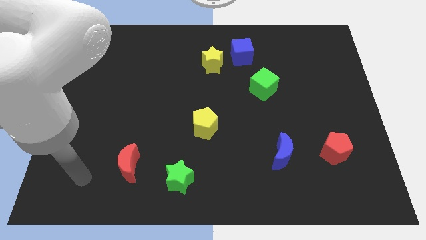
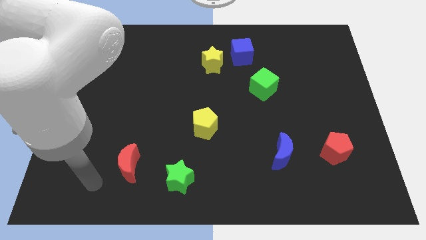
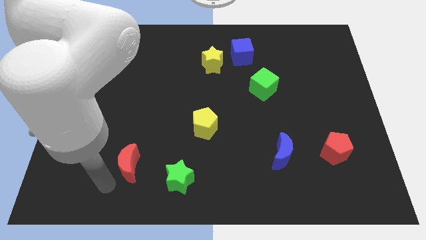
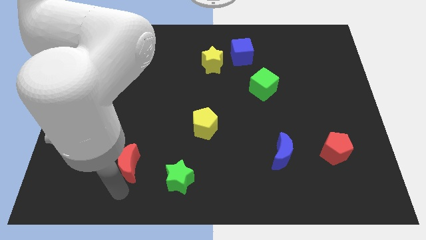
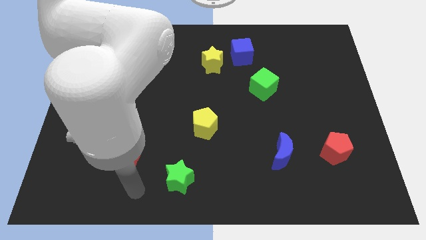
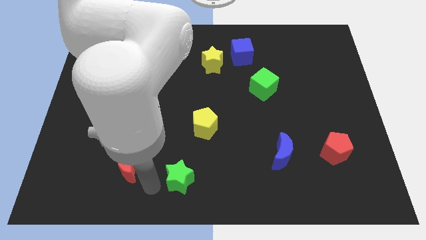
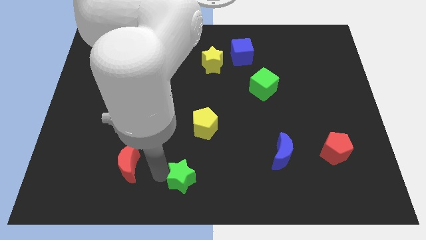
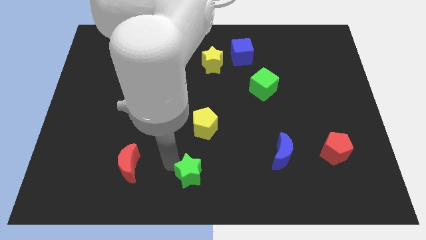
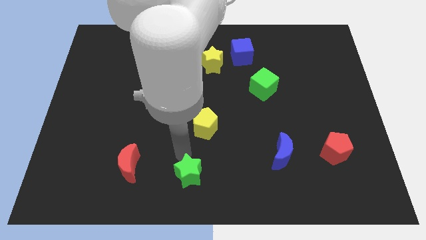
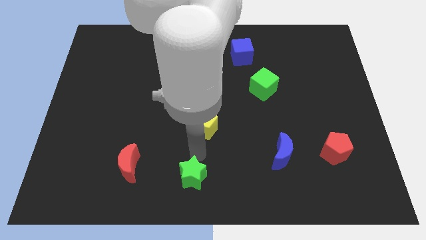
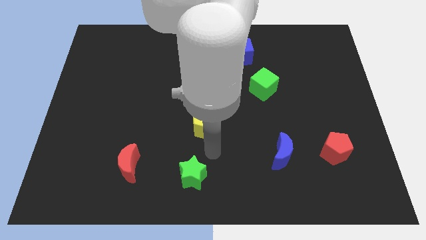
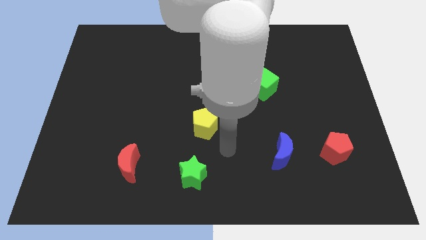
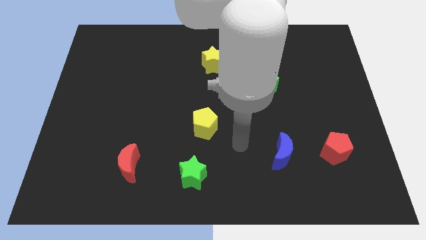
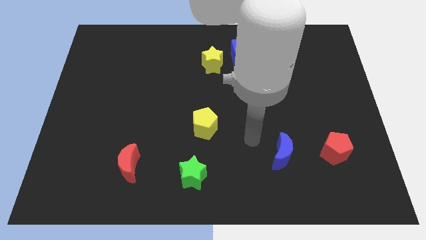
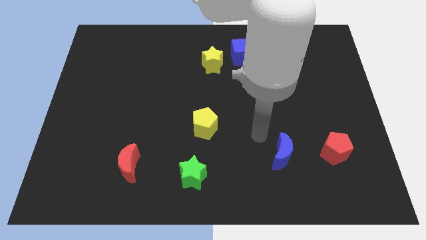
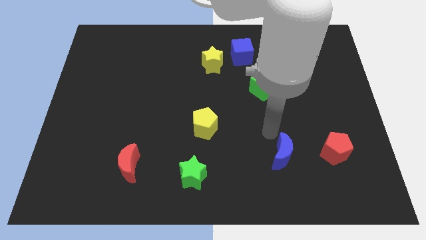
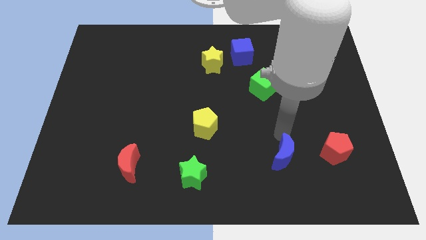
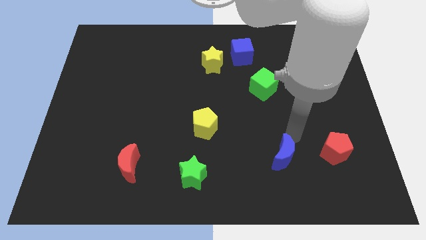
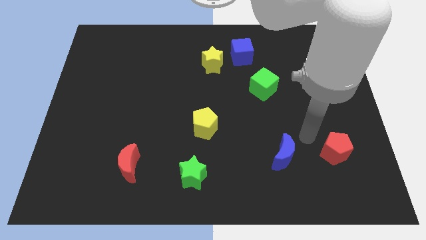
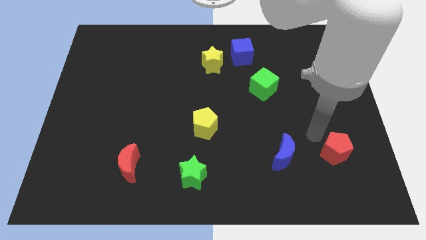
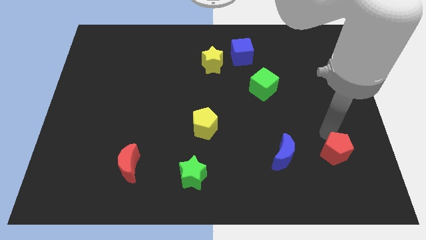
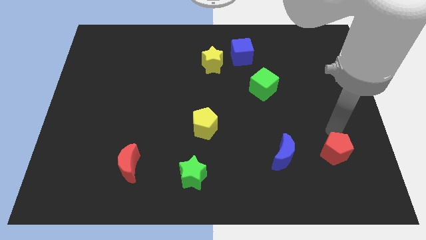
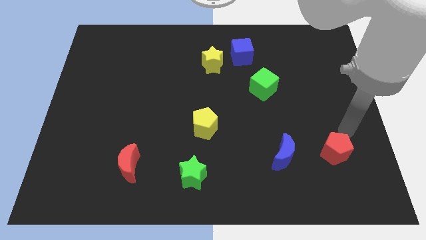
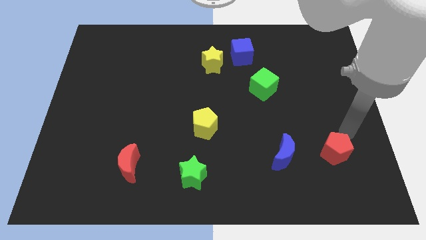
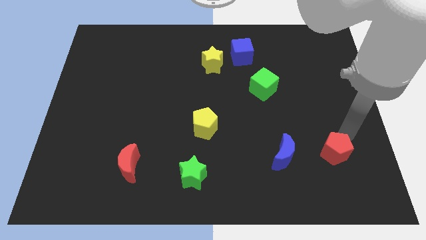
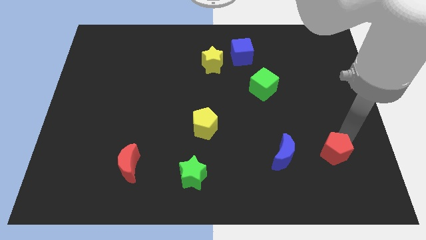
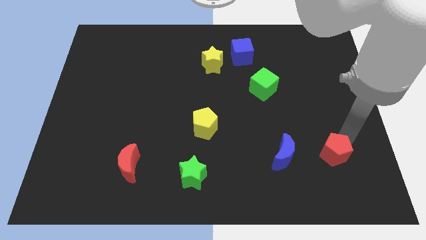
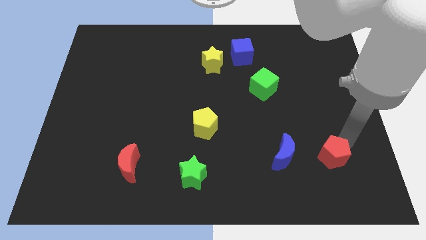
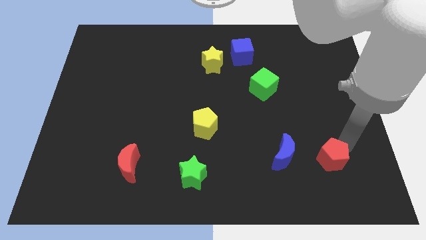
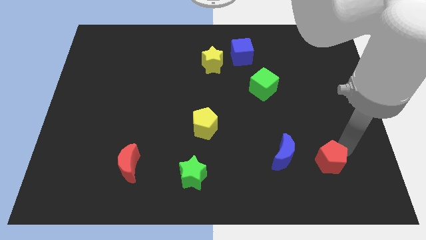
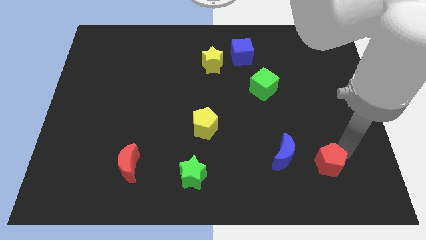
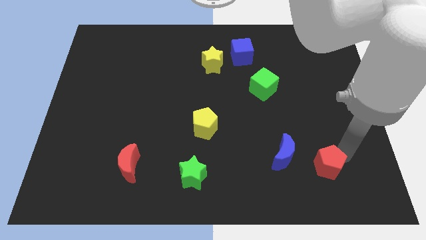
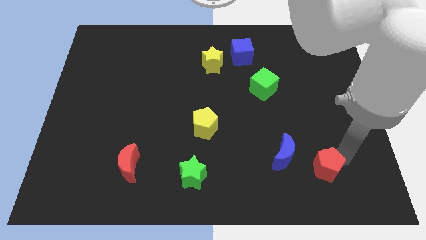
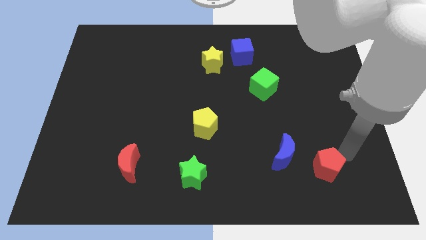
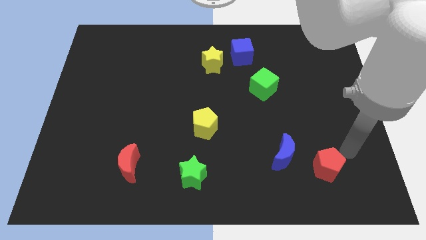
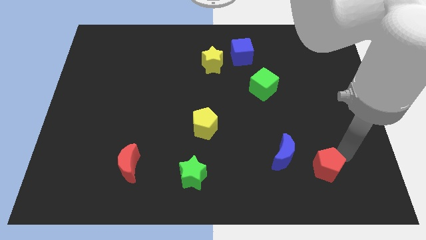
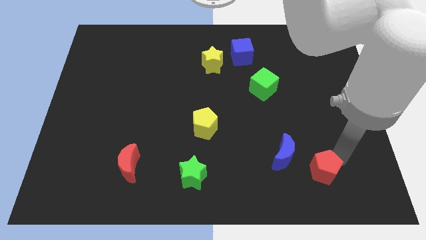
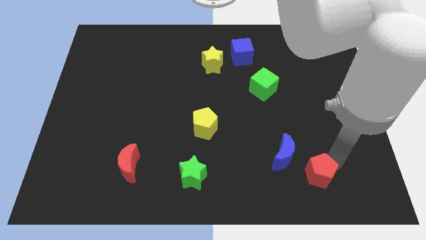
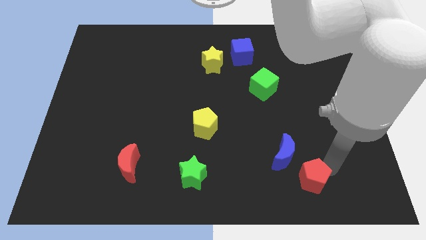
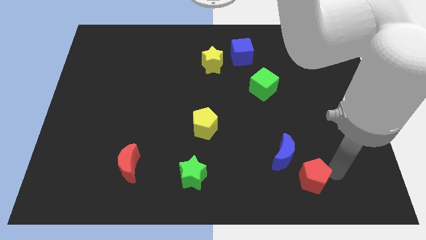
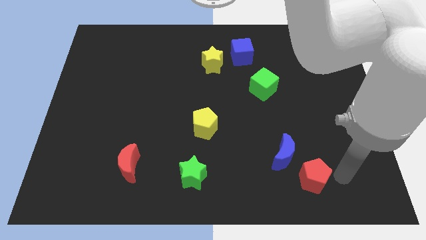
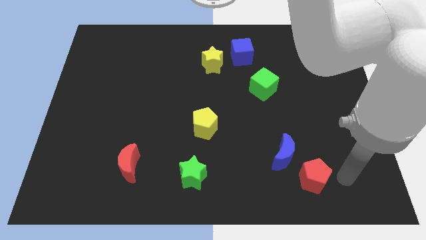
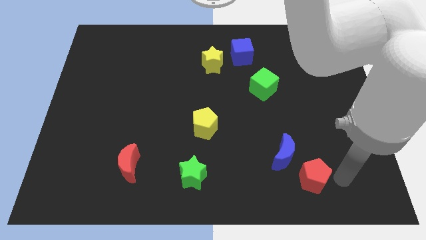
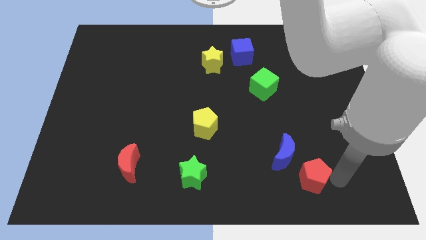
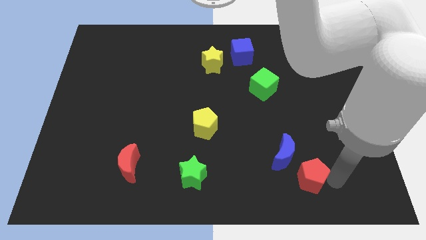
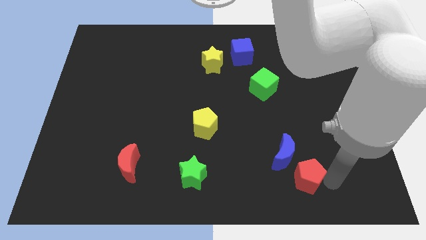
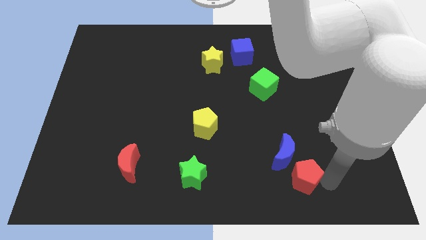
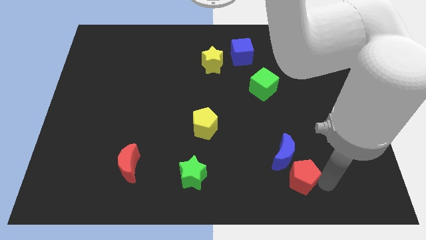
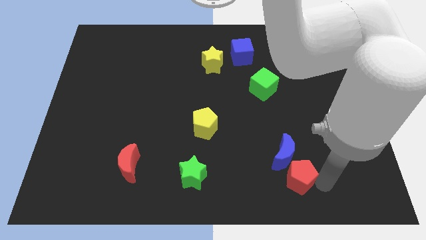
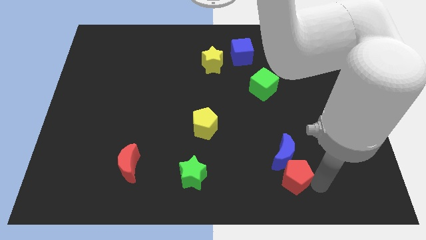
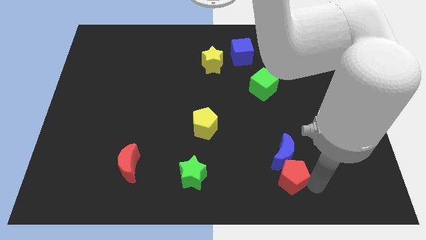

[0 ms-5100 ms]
move the red pentagon to the bottom left of the blue moon

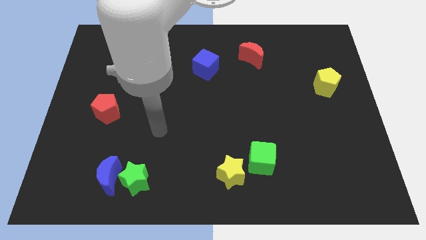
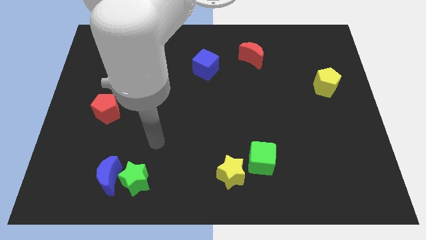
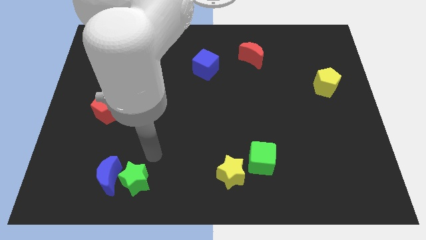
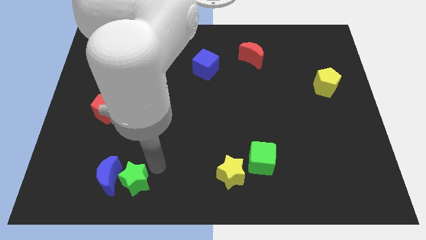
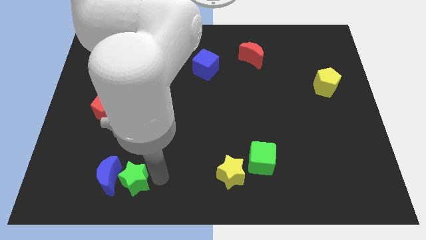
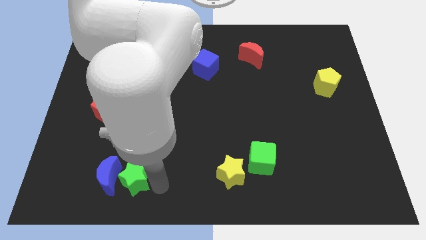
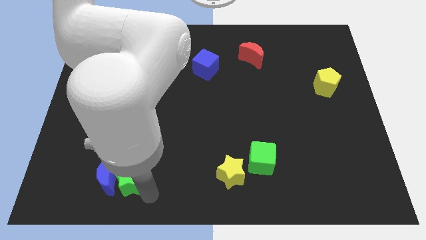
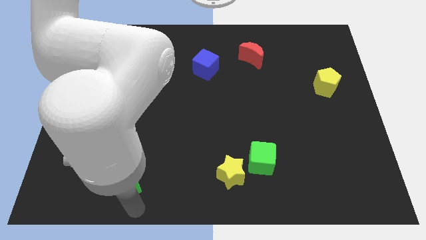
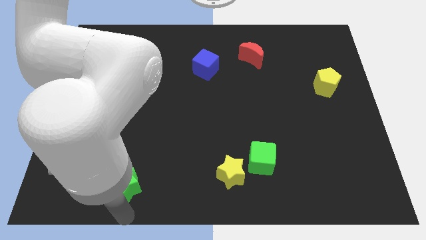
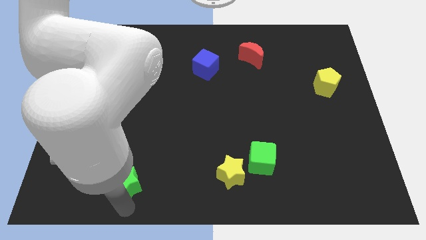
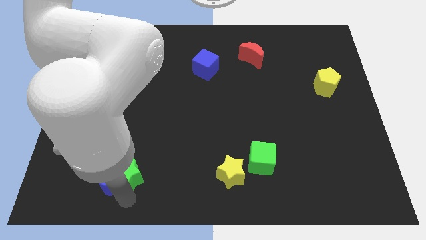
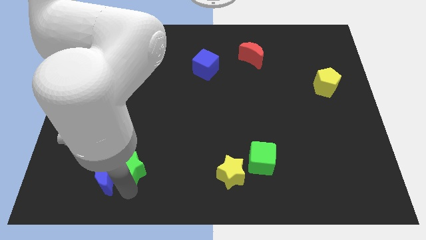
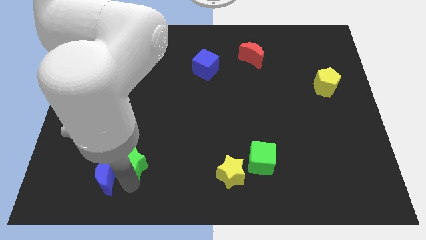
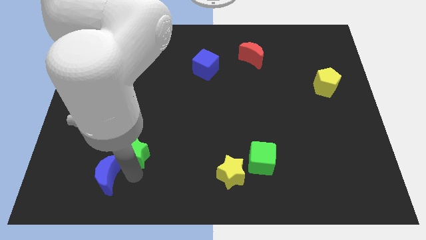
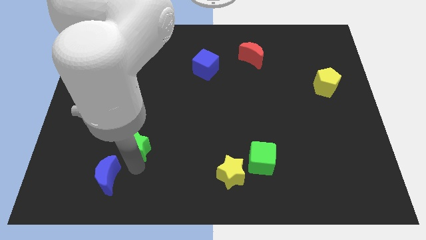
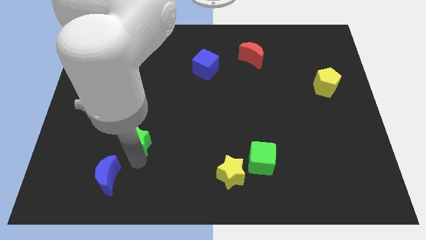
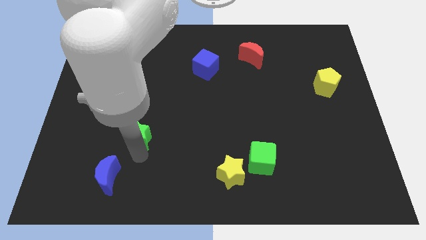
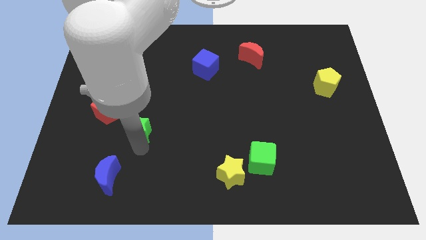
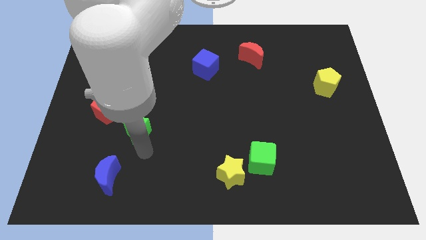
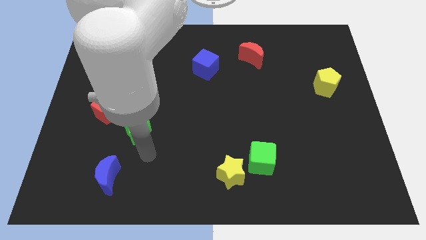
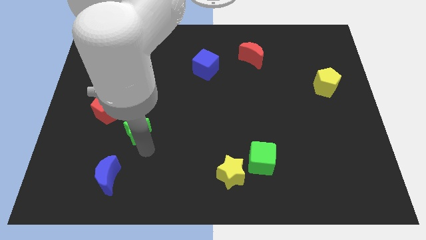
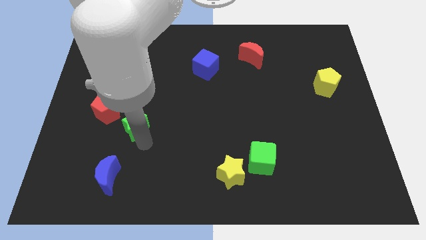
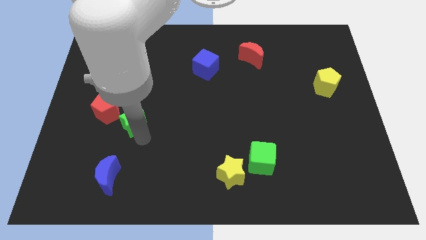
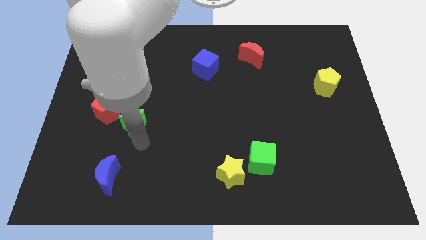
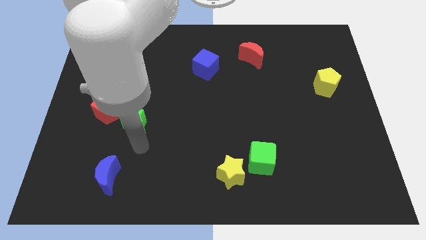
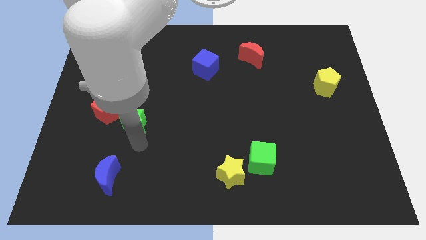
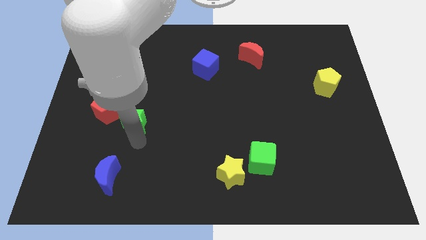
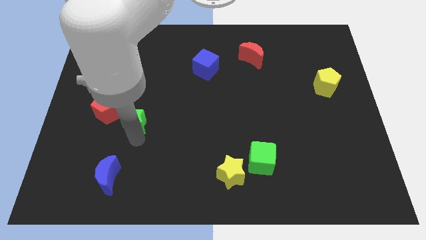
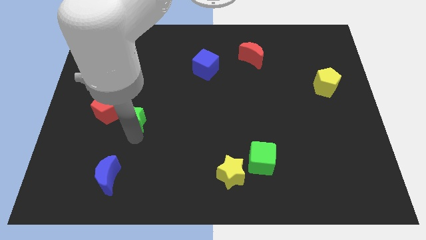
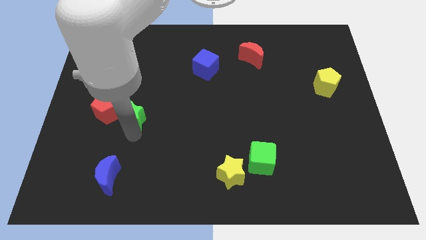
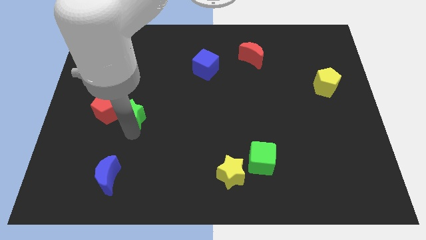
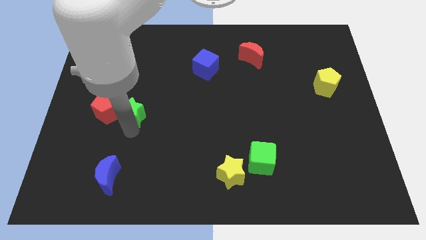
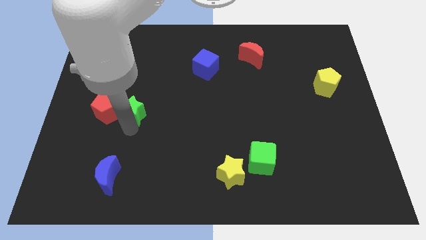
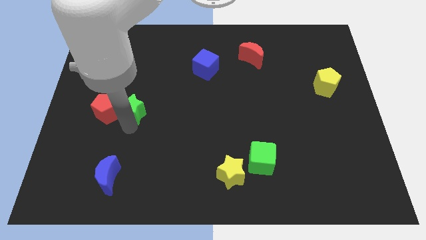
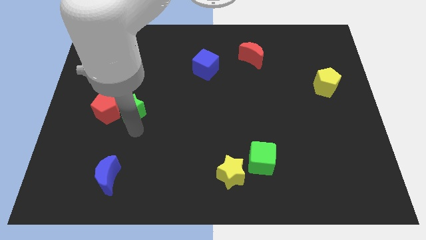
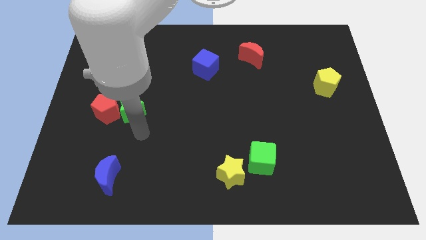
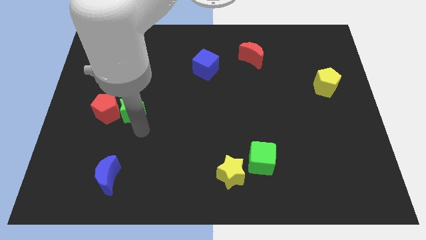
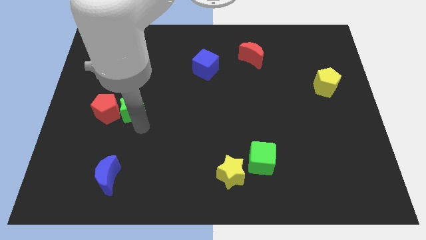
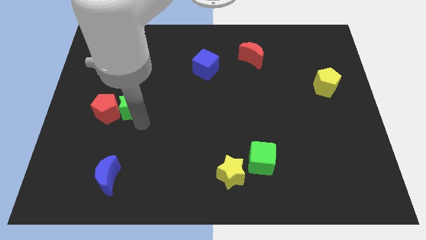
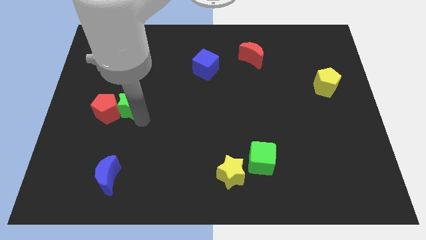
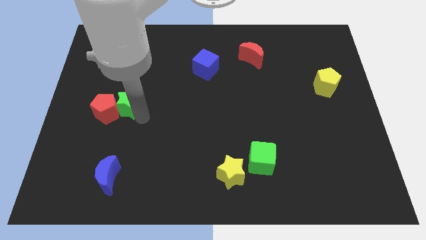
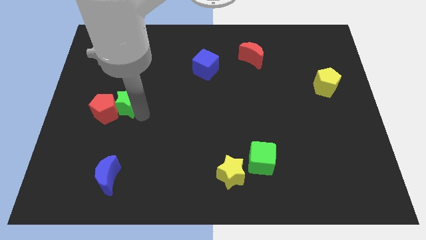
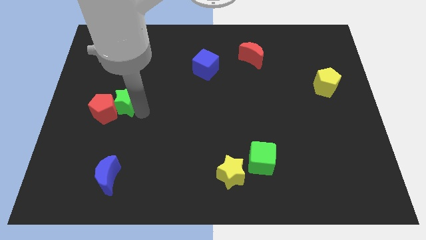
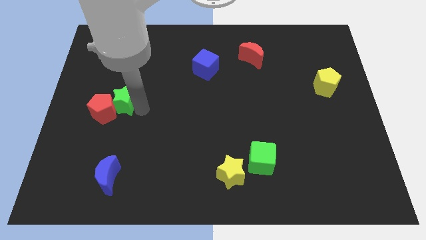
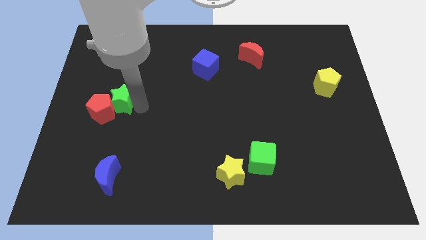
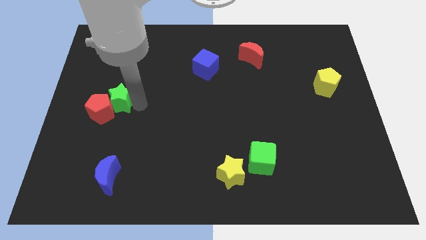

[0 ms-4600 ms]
slide the green star above the red pentagon
